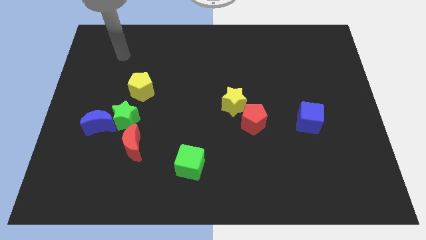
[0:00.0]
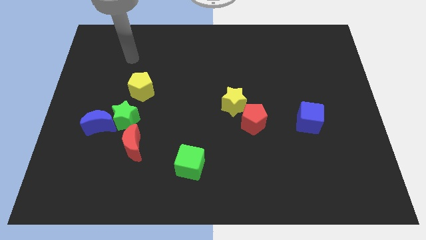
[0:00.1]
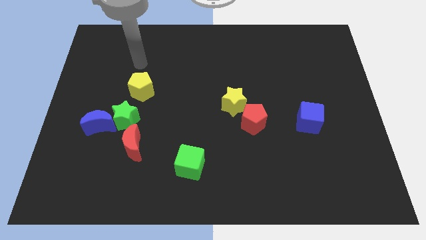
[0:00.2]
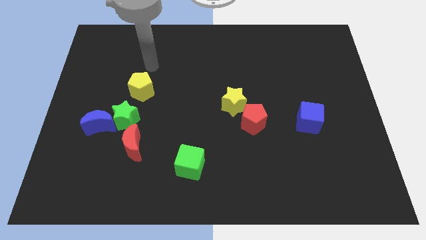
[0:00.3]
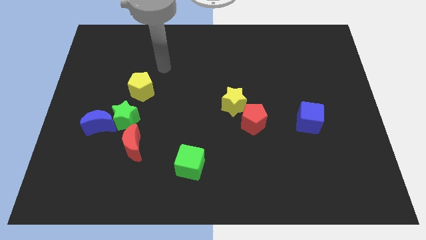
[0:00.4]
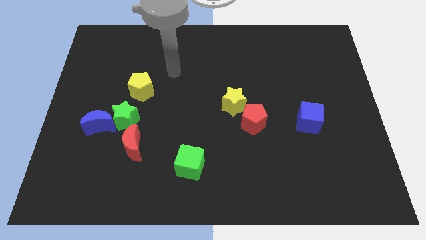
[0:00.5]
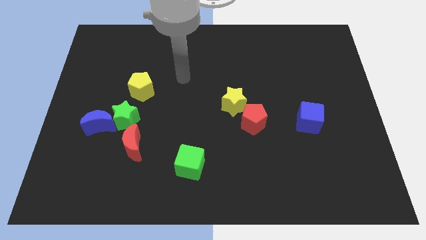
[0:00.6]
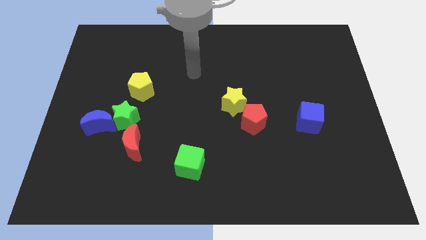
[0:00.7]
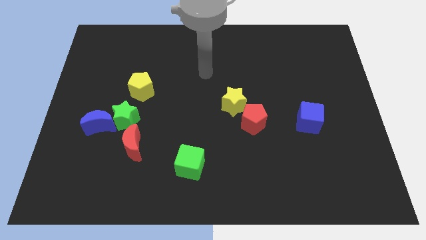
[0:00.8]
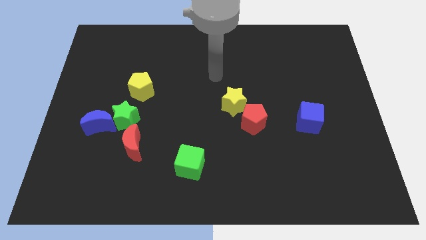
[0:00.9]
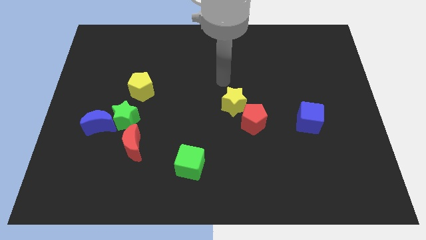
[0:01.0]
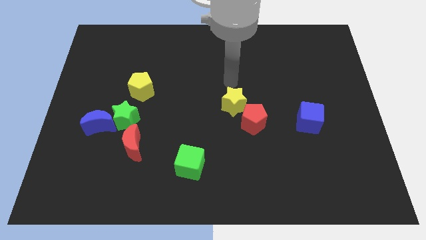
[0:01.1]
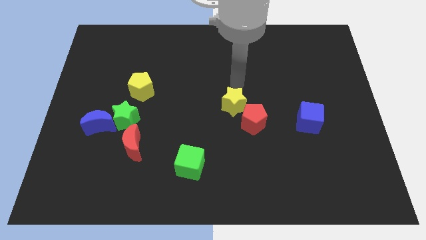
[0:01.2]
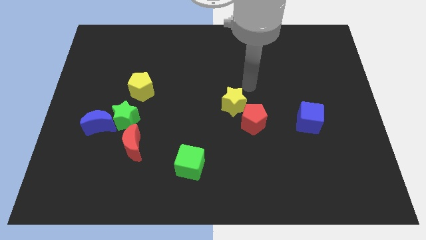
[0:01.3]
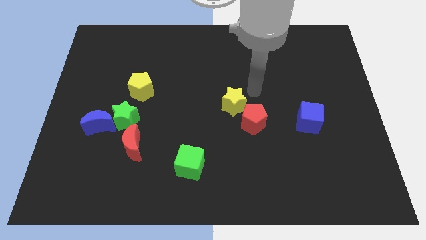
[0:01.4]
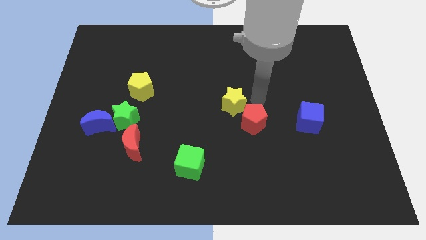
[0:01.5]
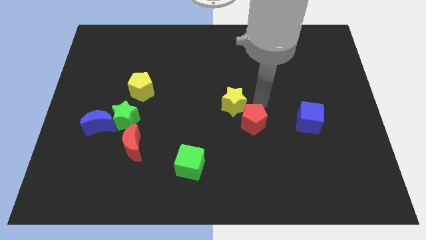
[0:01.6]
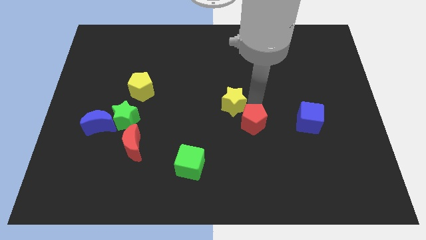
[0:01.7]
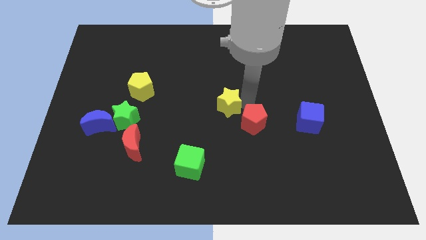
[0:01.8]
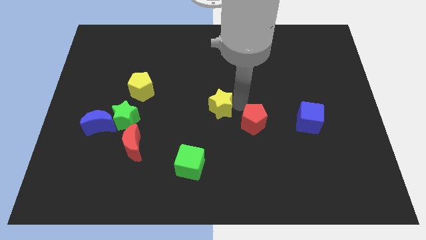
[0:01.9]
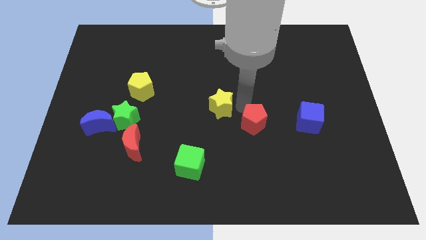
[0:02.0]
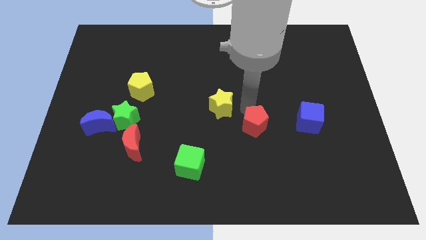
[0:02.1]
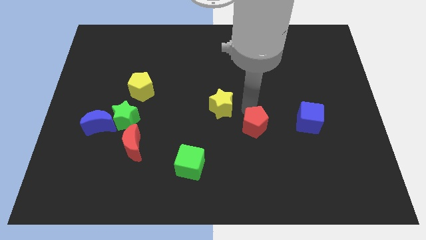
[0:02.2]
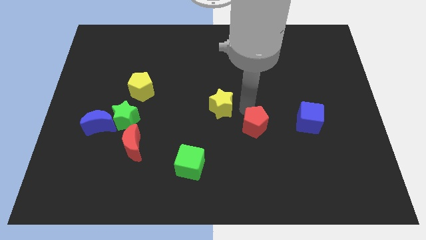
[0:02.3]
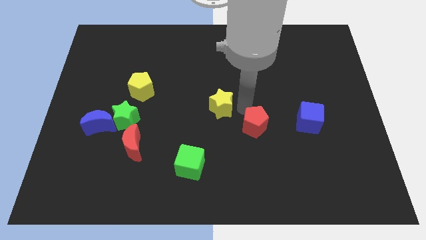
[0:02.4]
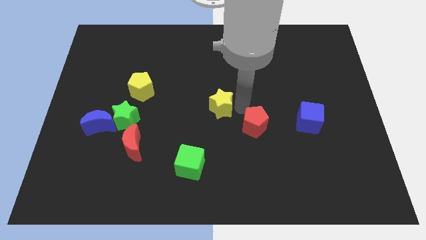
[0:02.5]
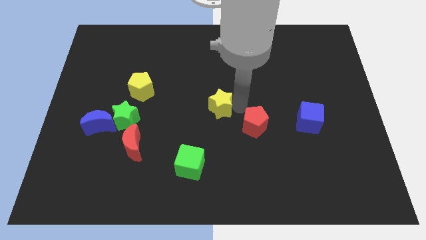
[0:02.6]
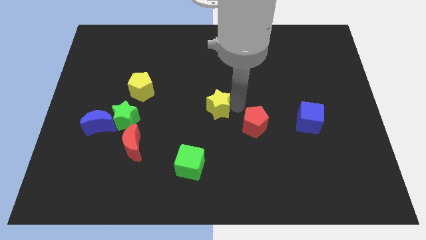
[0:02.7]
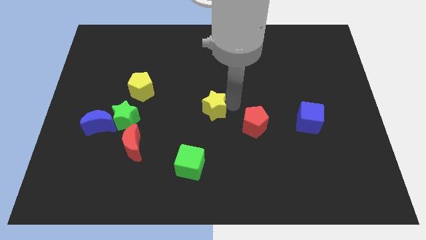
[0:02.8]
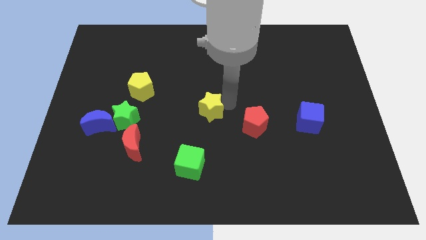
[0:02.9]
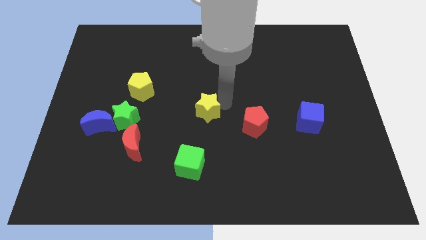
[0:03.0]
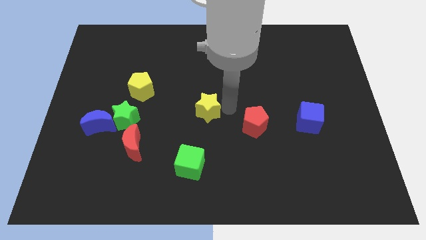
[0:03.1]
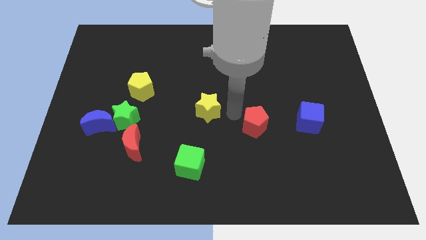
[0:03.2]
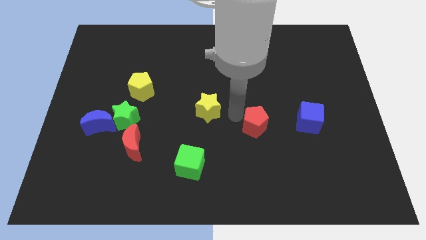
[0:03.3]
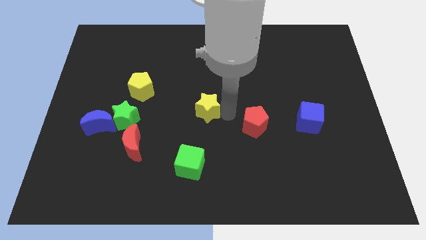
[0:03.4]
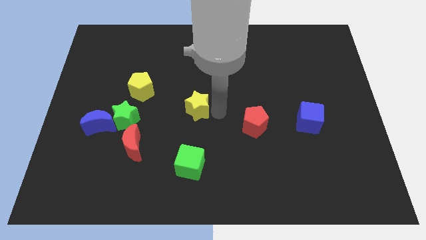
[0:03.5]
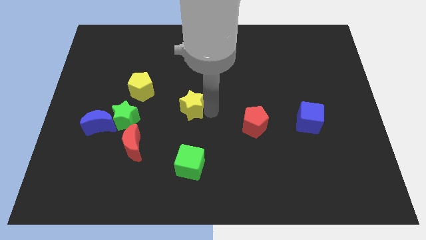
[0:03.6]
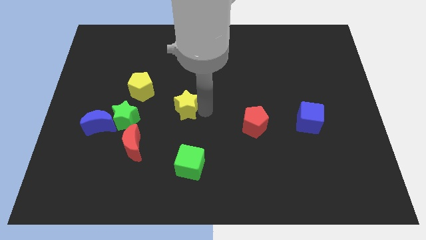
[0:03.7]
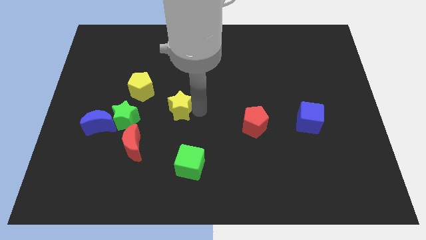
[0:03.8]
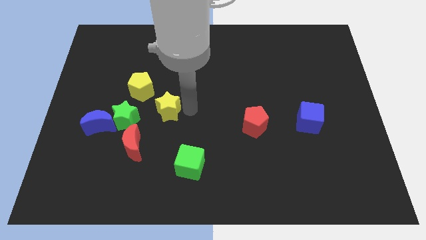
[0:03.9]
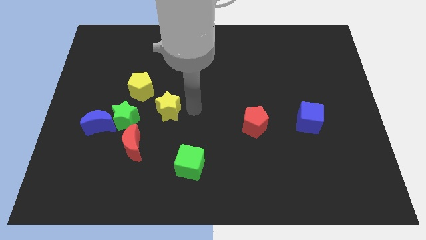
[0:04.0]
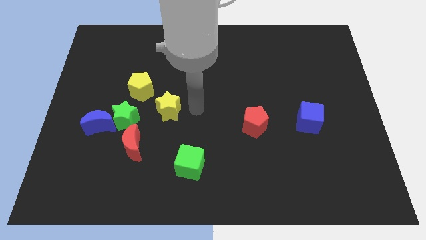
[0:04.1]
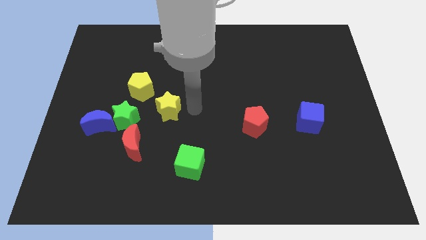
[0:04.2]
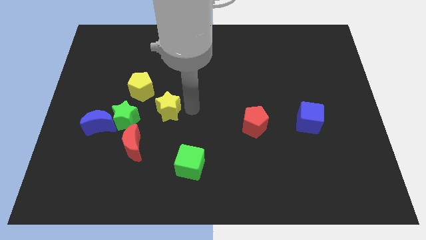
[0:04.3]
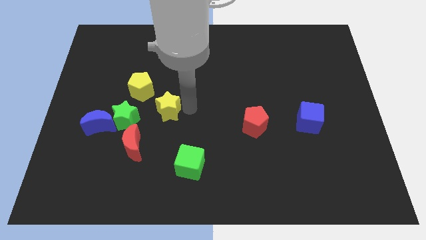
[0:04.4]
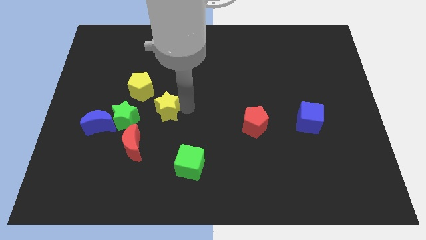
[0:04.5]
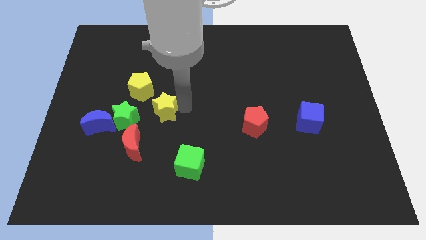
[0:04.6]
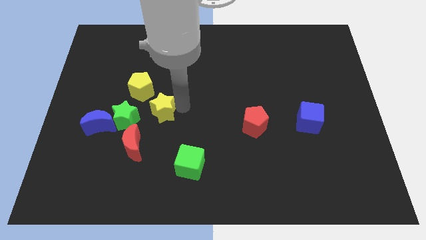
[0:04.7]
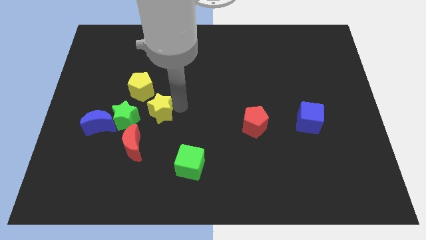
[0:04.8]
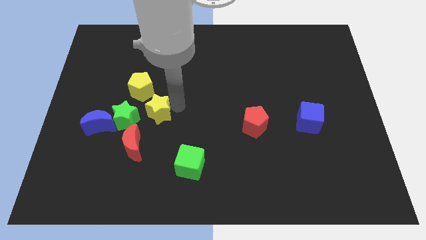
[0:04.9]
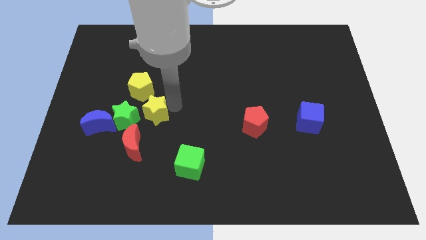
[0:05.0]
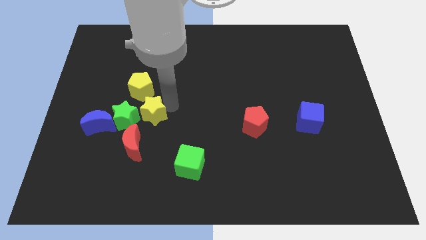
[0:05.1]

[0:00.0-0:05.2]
slide the yellow star close to the green star

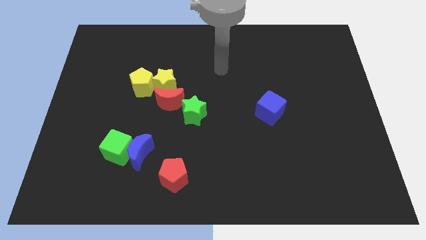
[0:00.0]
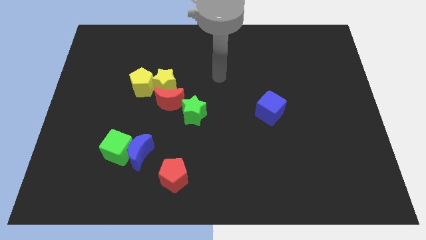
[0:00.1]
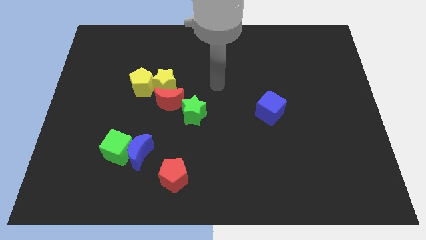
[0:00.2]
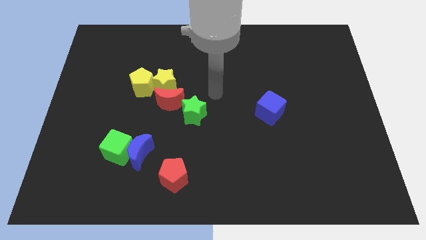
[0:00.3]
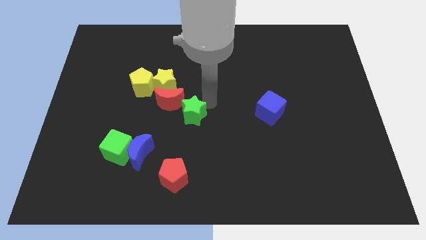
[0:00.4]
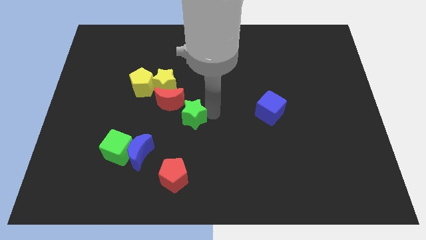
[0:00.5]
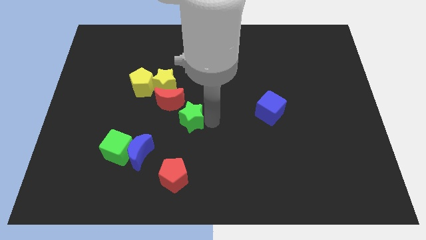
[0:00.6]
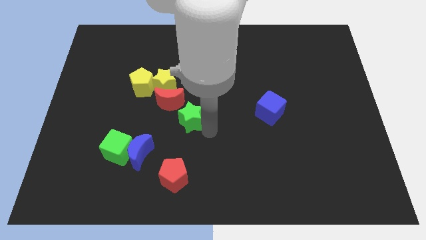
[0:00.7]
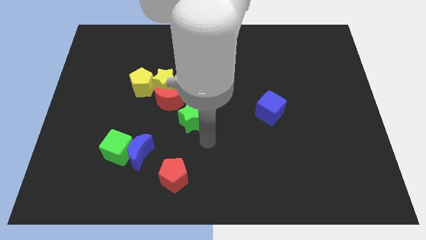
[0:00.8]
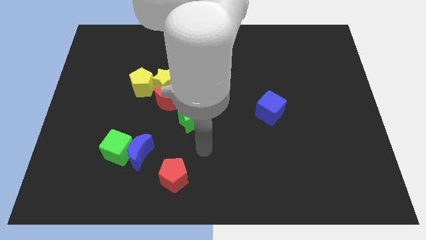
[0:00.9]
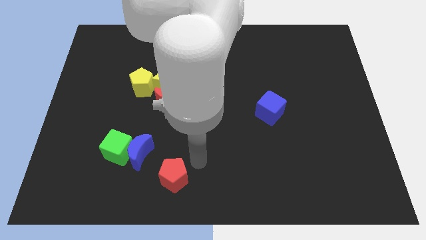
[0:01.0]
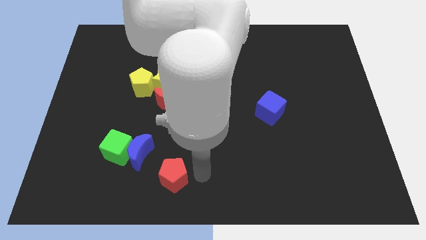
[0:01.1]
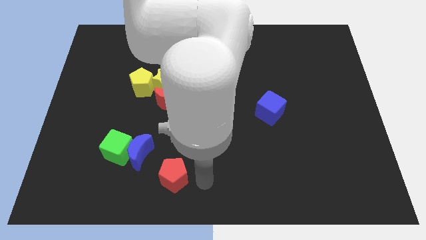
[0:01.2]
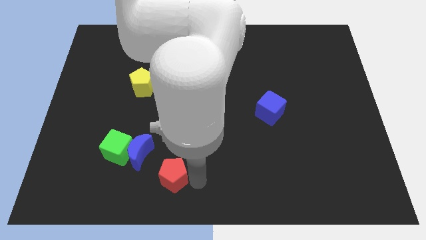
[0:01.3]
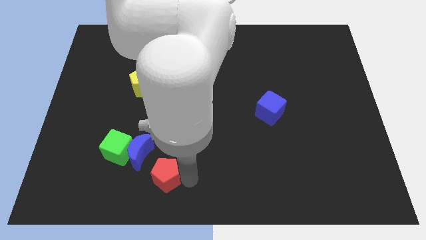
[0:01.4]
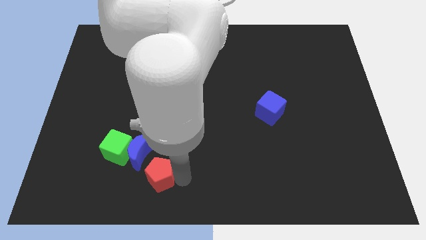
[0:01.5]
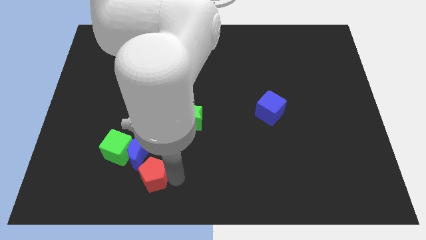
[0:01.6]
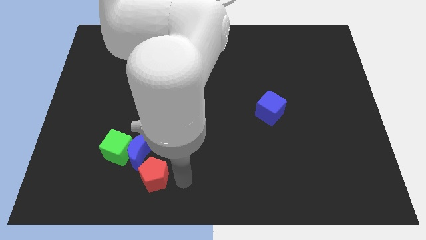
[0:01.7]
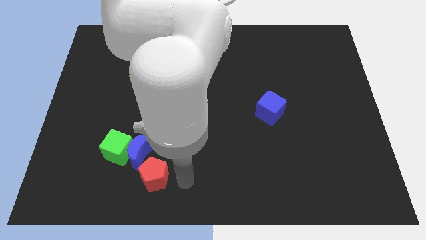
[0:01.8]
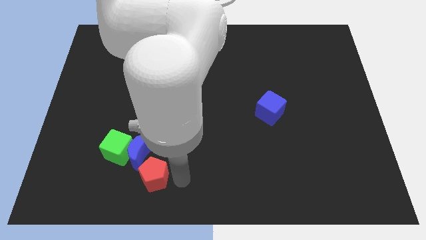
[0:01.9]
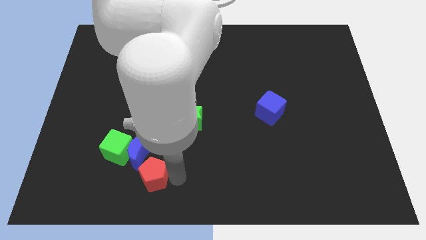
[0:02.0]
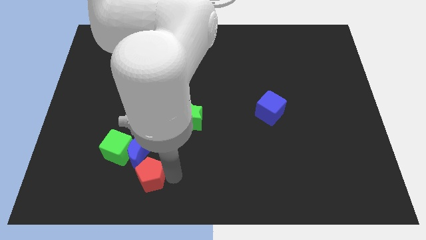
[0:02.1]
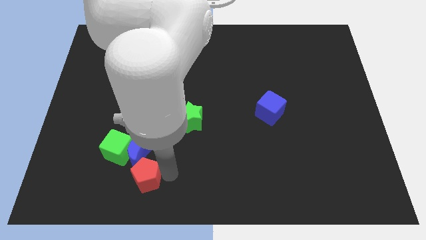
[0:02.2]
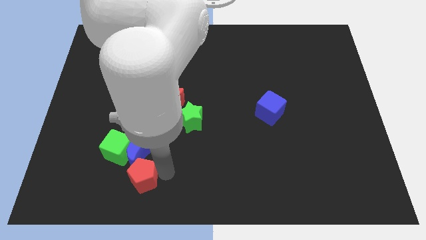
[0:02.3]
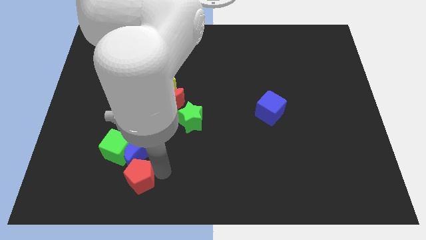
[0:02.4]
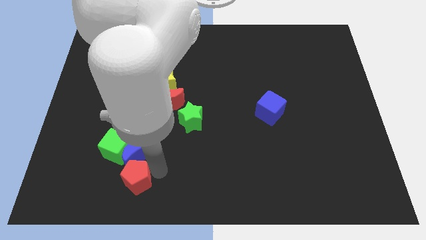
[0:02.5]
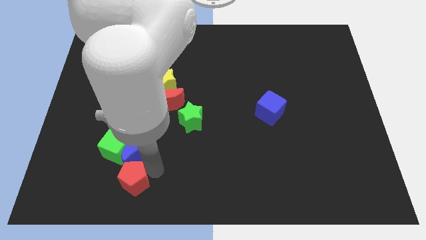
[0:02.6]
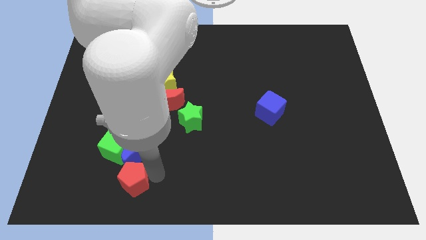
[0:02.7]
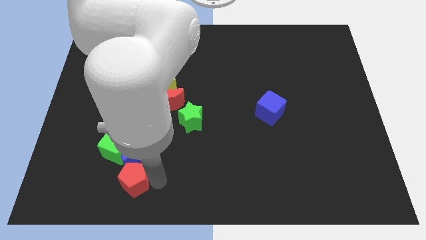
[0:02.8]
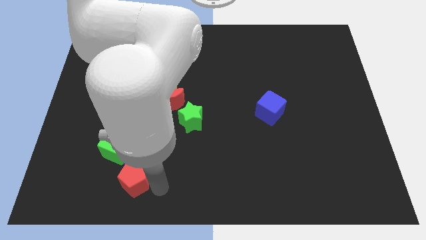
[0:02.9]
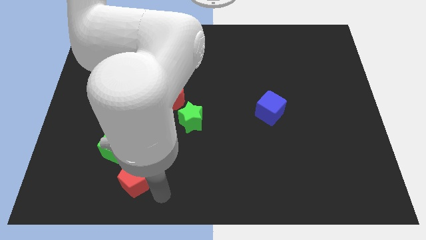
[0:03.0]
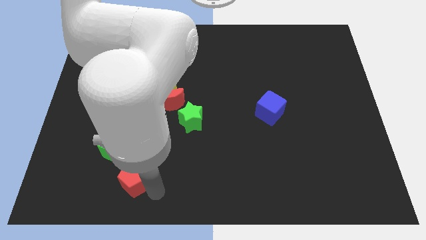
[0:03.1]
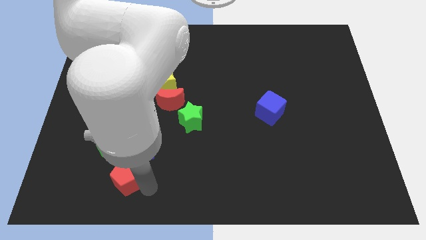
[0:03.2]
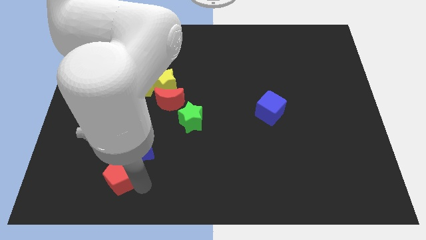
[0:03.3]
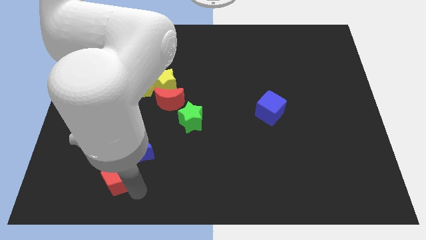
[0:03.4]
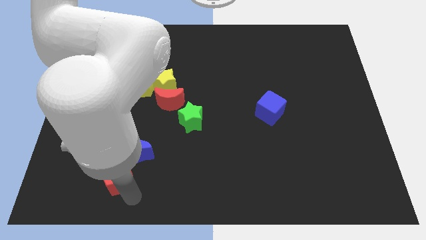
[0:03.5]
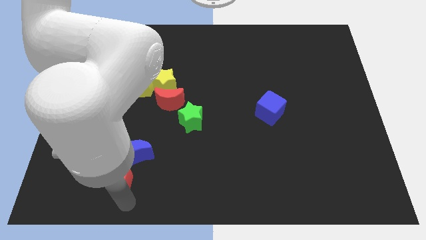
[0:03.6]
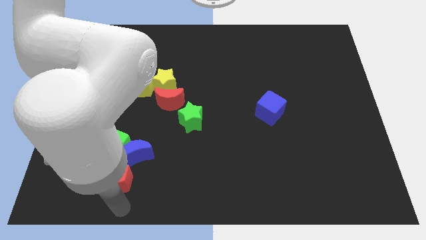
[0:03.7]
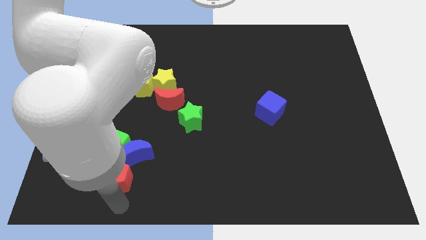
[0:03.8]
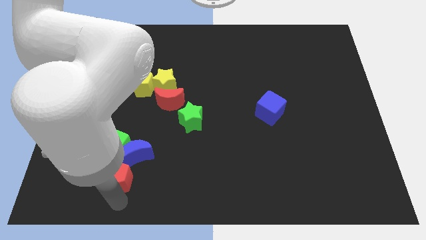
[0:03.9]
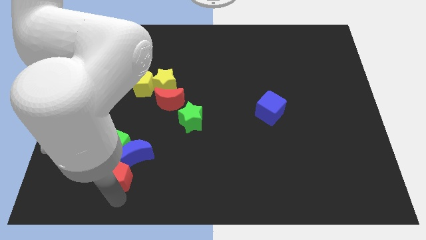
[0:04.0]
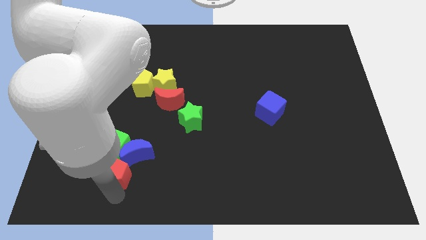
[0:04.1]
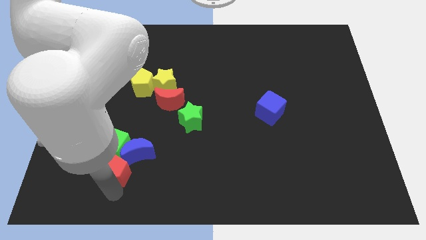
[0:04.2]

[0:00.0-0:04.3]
push the red pentagon next to the green cube
